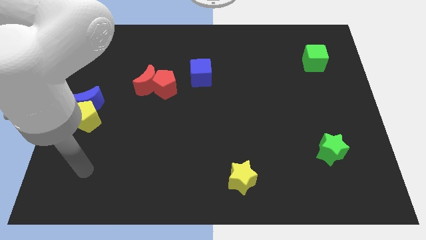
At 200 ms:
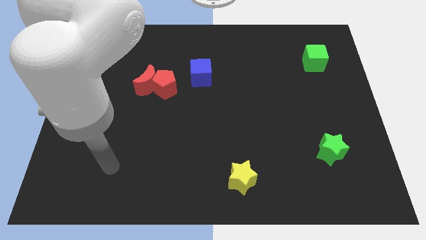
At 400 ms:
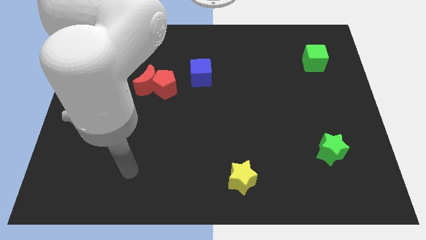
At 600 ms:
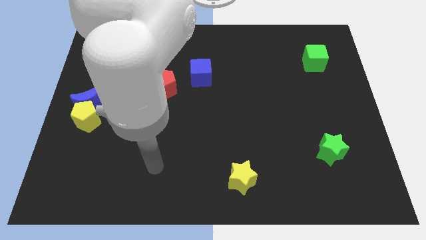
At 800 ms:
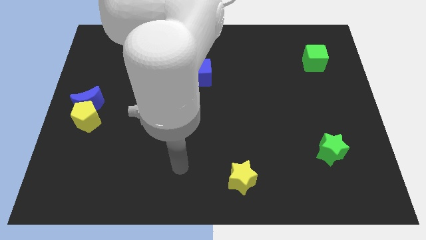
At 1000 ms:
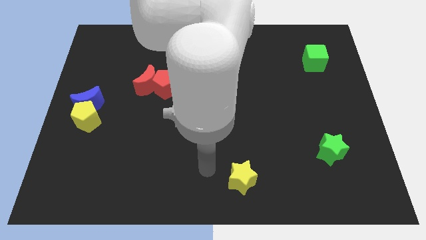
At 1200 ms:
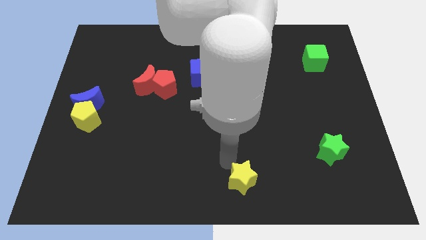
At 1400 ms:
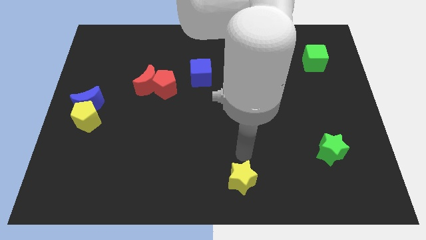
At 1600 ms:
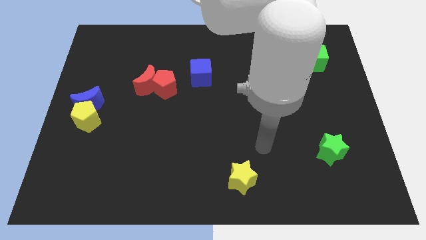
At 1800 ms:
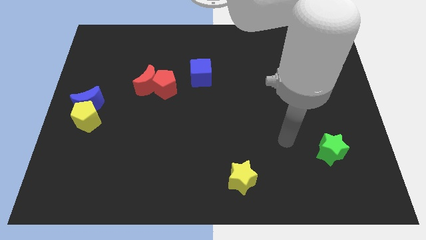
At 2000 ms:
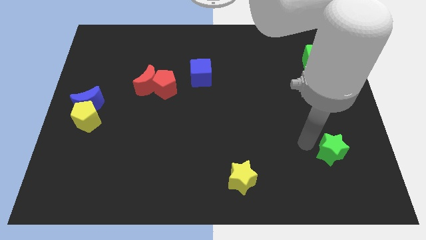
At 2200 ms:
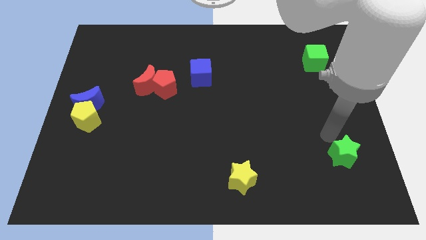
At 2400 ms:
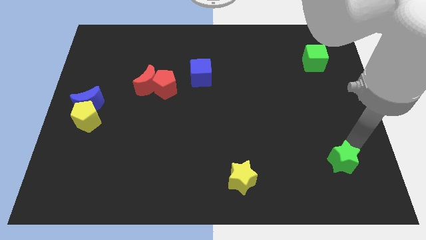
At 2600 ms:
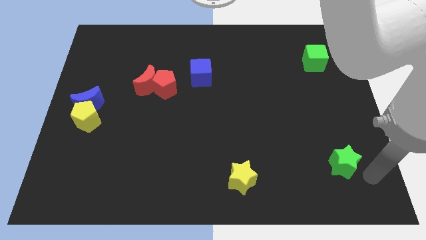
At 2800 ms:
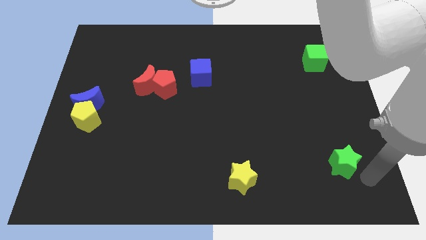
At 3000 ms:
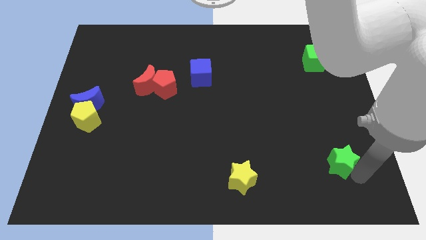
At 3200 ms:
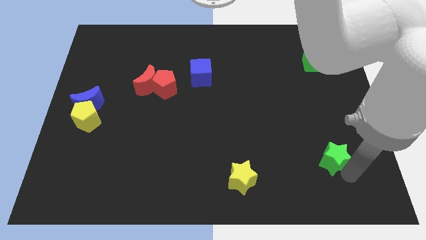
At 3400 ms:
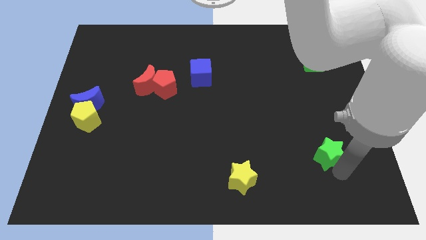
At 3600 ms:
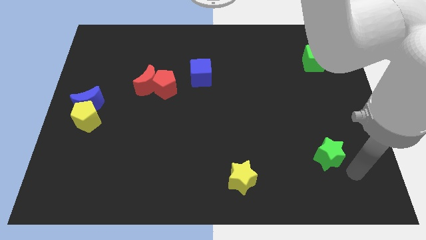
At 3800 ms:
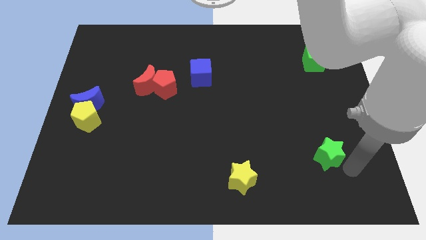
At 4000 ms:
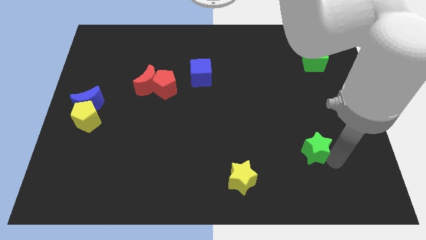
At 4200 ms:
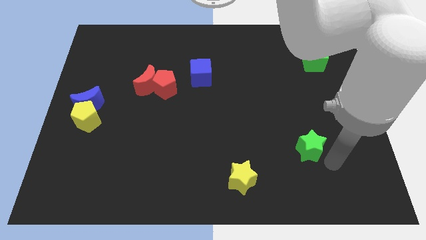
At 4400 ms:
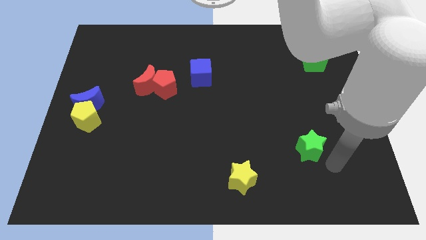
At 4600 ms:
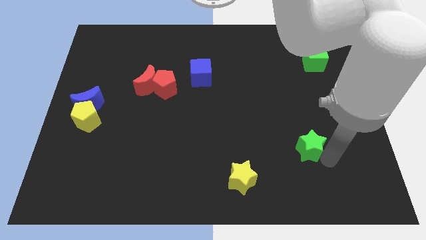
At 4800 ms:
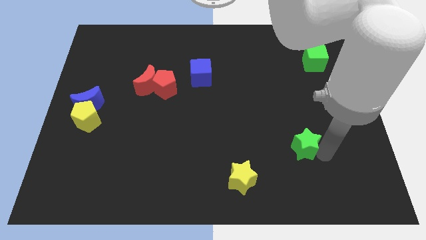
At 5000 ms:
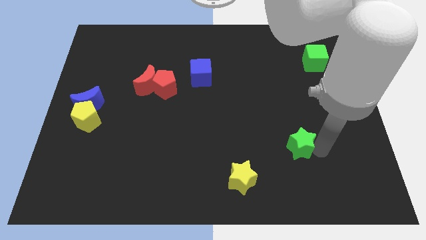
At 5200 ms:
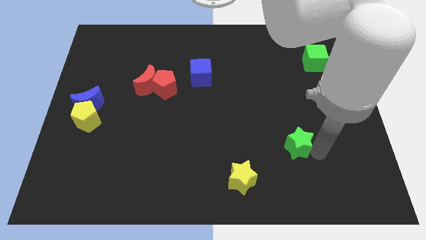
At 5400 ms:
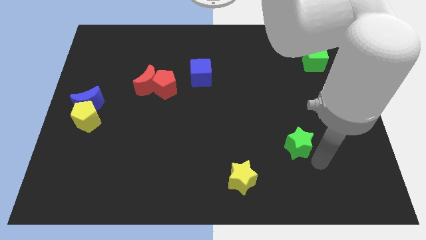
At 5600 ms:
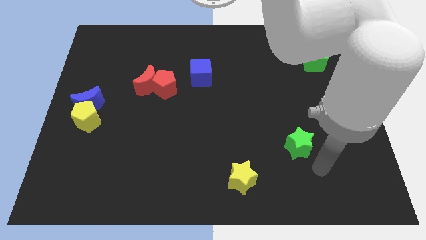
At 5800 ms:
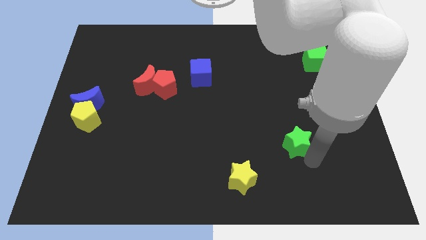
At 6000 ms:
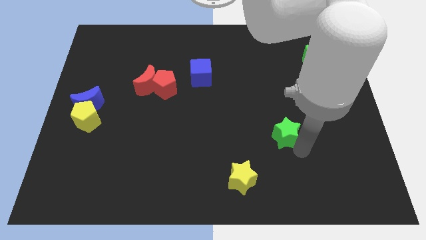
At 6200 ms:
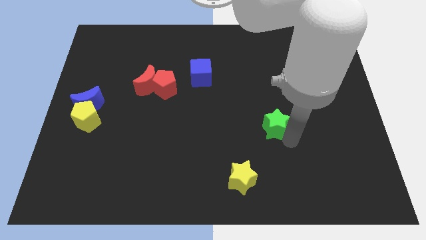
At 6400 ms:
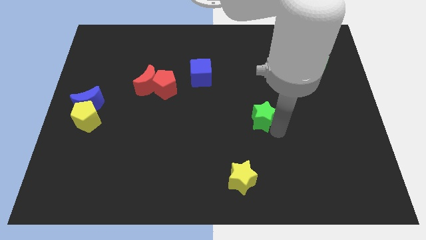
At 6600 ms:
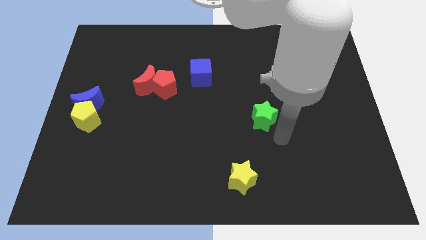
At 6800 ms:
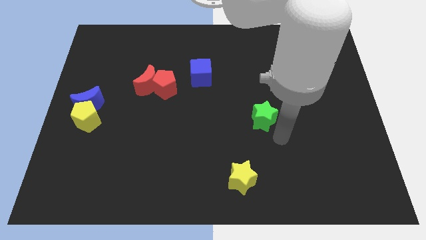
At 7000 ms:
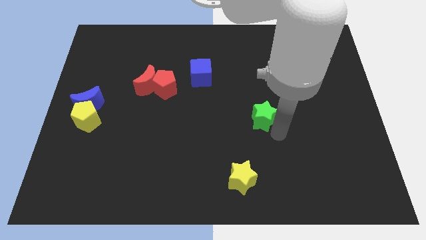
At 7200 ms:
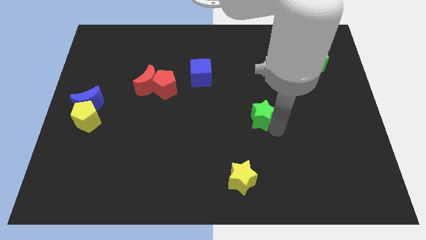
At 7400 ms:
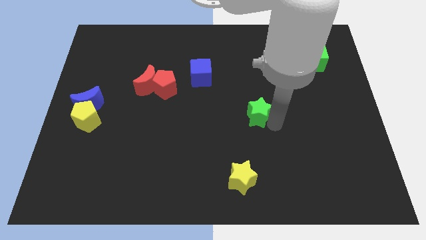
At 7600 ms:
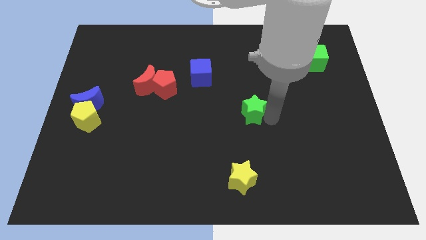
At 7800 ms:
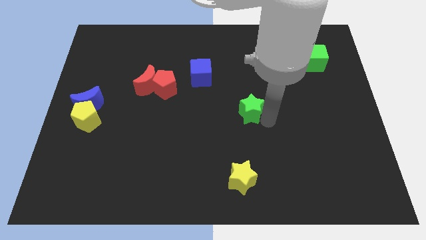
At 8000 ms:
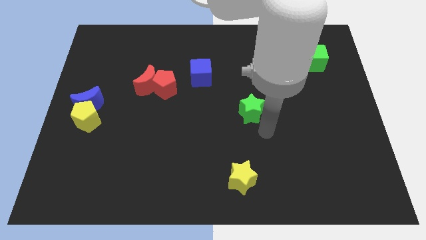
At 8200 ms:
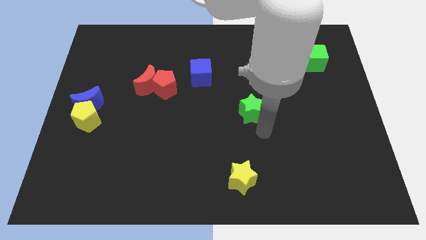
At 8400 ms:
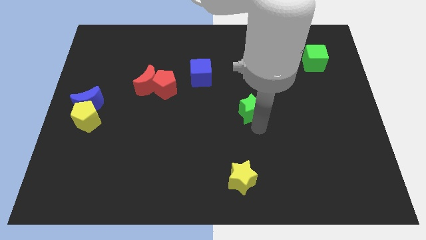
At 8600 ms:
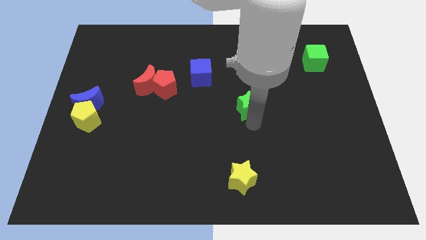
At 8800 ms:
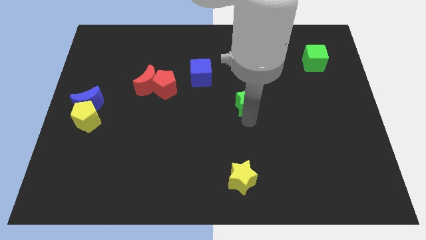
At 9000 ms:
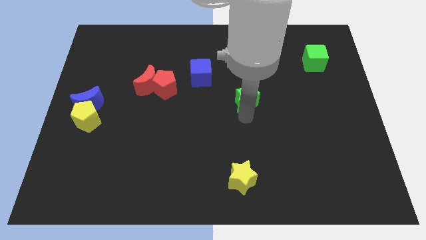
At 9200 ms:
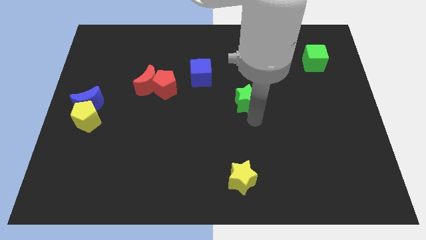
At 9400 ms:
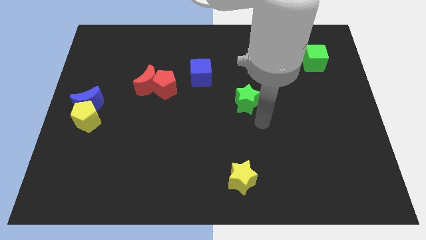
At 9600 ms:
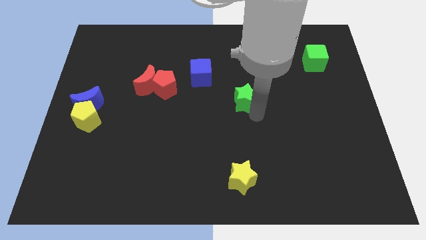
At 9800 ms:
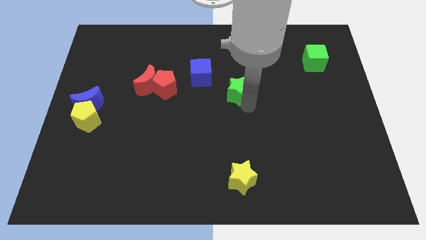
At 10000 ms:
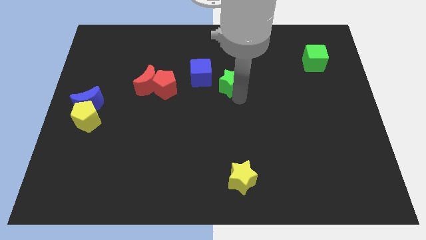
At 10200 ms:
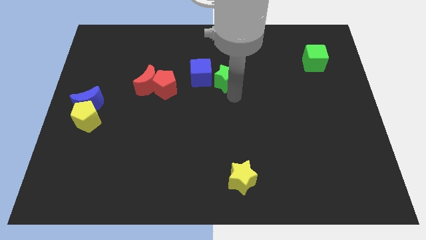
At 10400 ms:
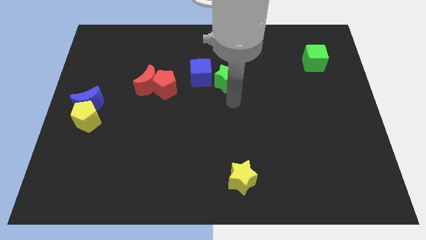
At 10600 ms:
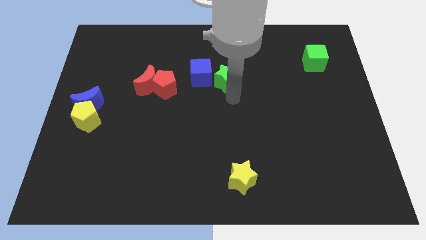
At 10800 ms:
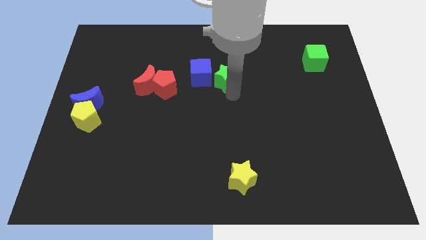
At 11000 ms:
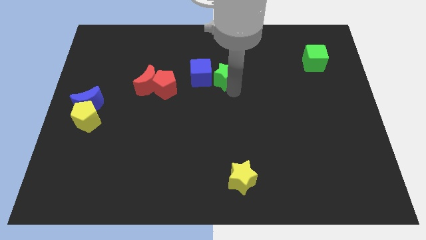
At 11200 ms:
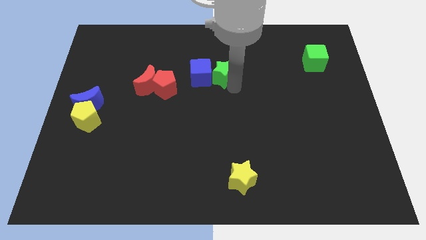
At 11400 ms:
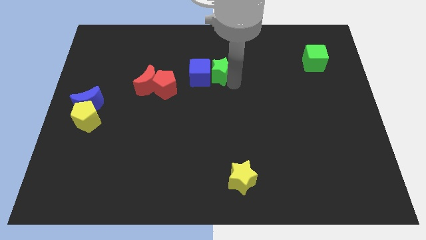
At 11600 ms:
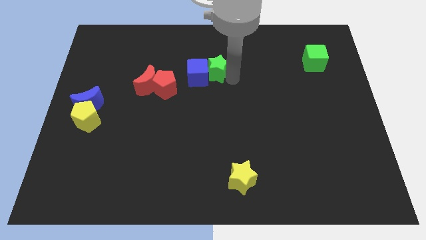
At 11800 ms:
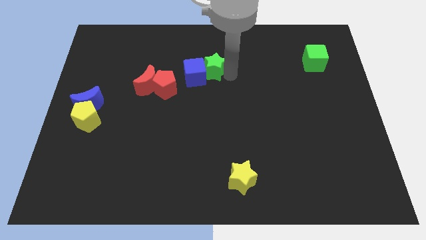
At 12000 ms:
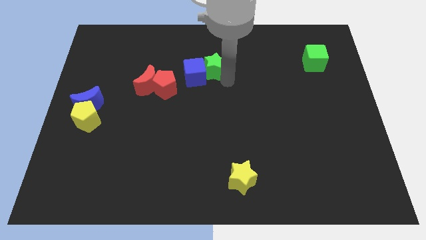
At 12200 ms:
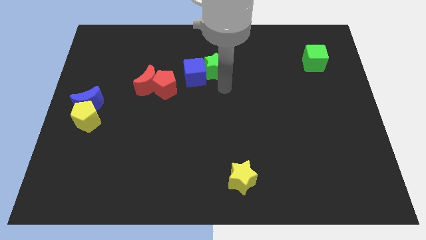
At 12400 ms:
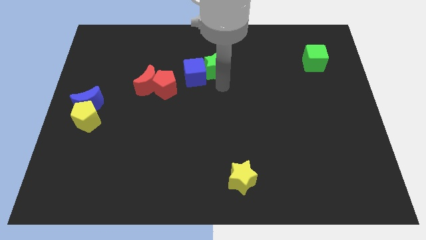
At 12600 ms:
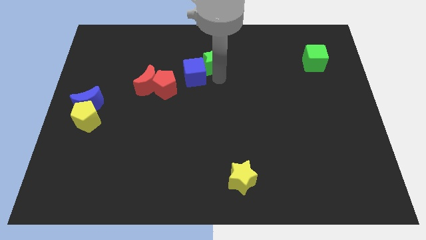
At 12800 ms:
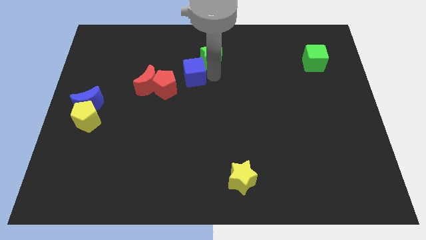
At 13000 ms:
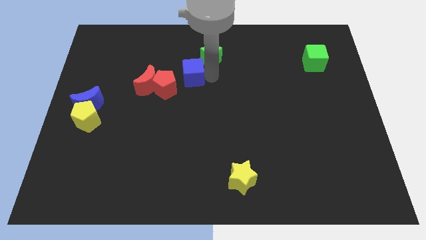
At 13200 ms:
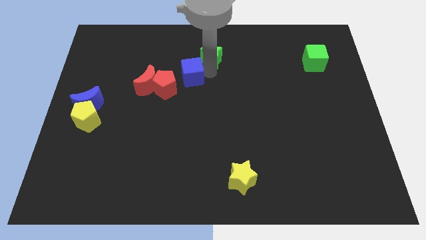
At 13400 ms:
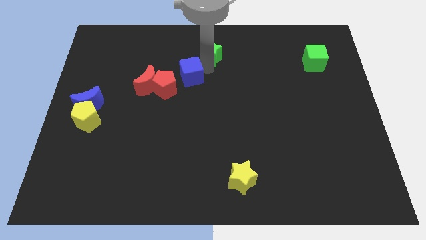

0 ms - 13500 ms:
put the green star to the towards your base

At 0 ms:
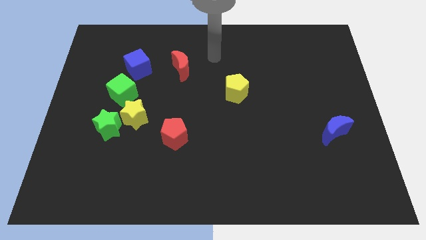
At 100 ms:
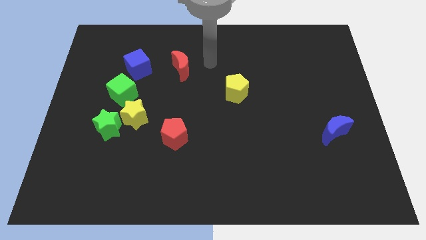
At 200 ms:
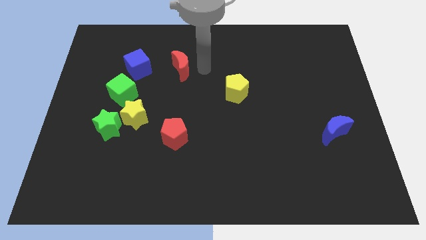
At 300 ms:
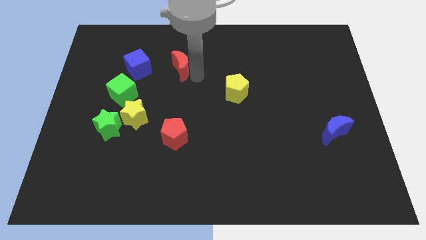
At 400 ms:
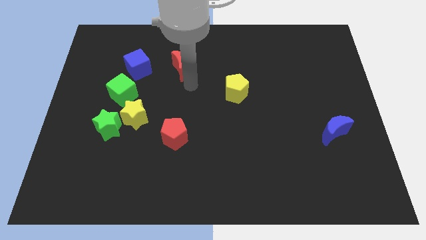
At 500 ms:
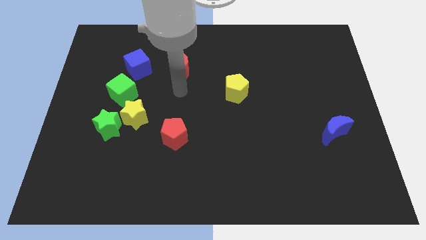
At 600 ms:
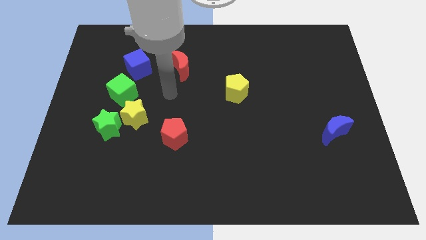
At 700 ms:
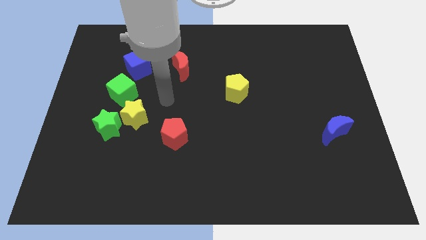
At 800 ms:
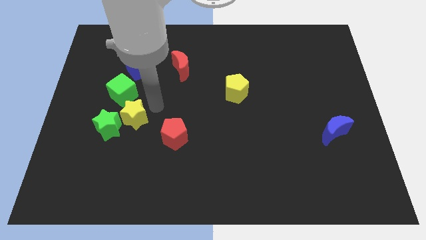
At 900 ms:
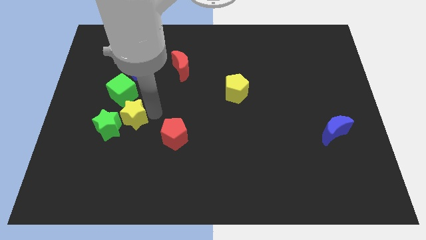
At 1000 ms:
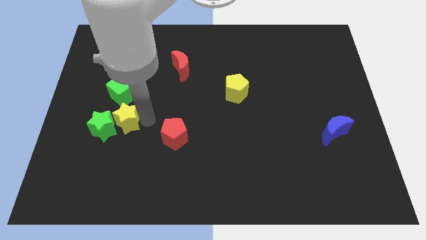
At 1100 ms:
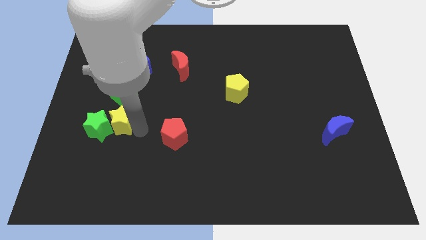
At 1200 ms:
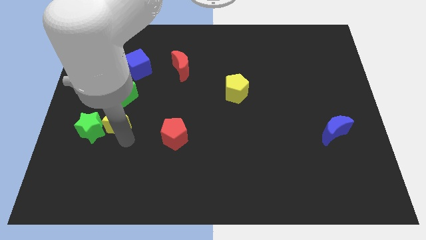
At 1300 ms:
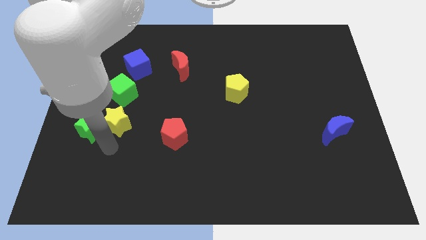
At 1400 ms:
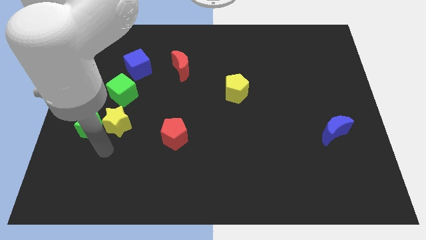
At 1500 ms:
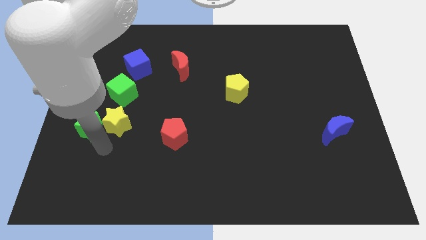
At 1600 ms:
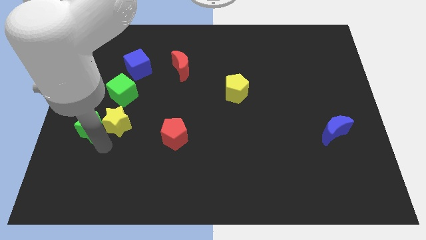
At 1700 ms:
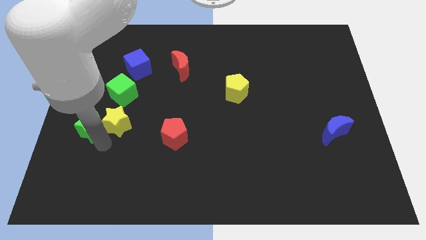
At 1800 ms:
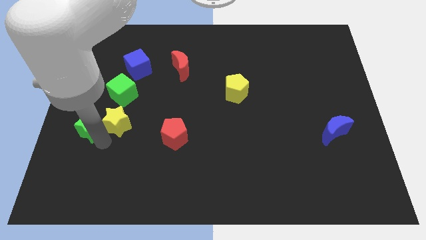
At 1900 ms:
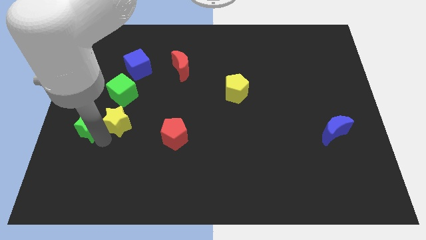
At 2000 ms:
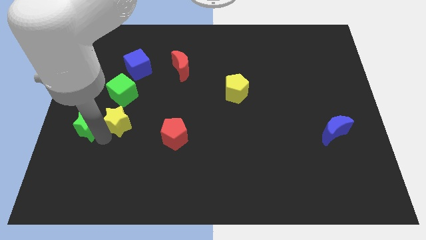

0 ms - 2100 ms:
push the green star to the center left
